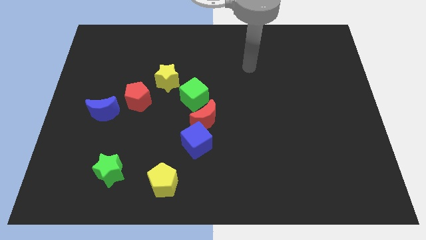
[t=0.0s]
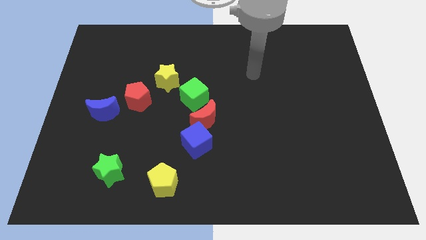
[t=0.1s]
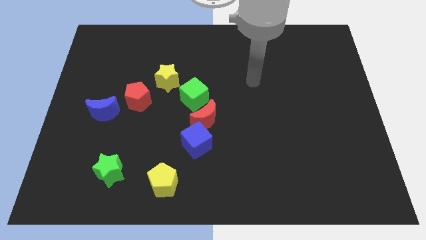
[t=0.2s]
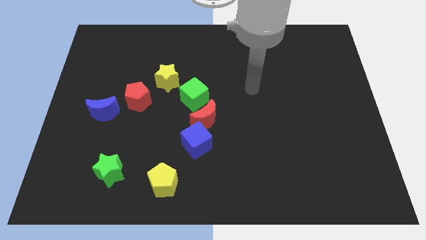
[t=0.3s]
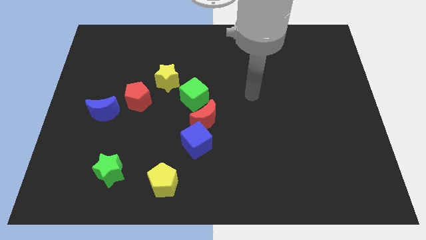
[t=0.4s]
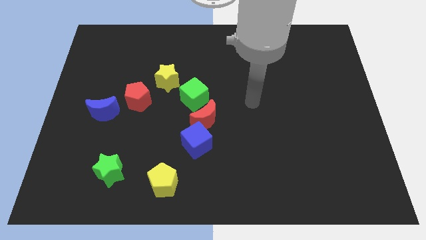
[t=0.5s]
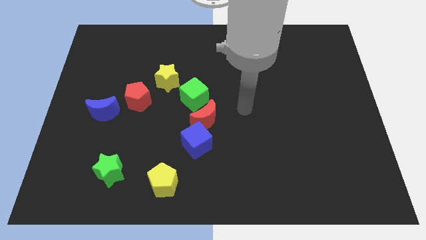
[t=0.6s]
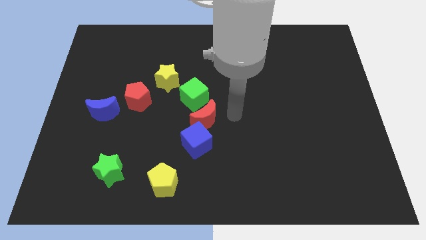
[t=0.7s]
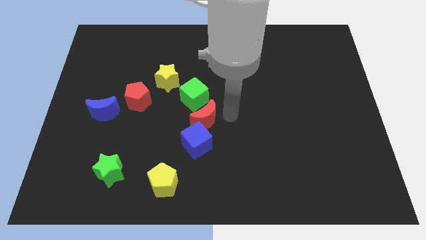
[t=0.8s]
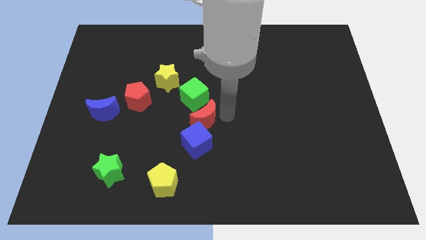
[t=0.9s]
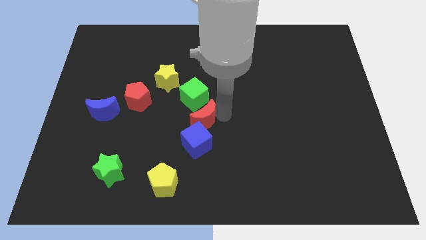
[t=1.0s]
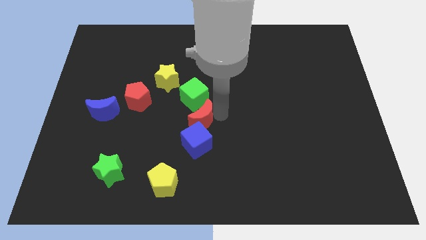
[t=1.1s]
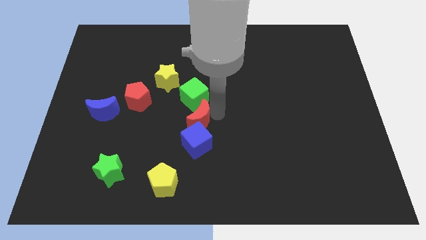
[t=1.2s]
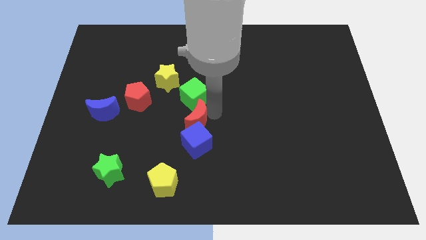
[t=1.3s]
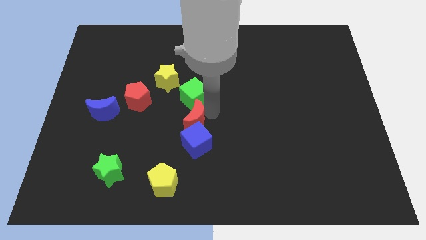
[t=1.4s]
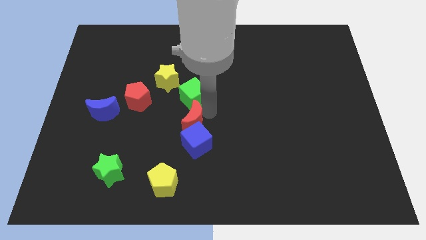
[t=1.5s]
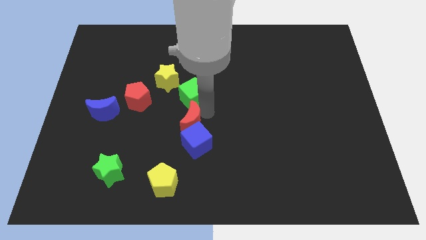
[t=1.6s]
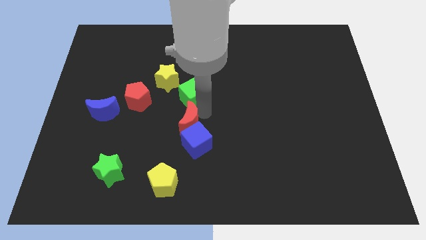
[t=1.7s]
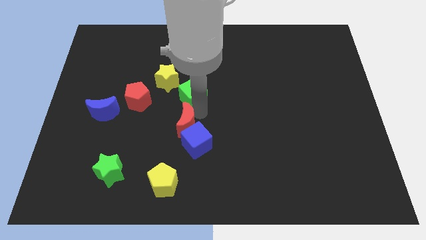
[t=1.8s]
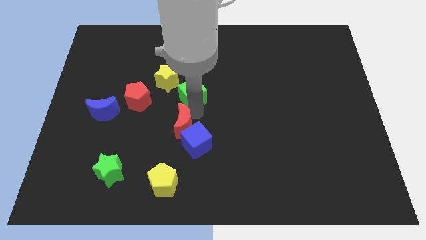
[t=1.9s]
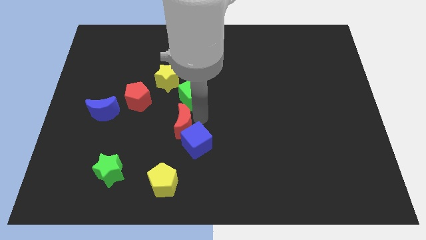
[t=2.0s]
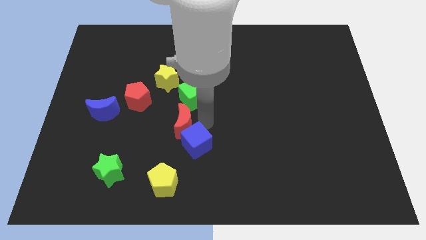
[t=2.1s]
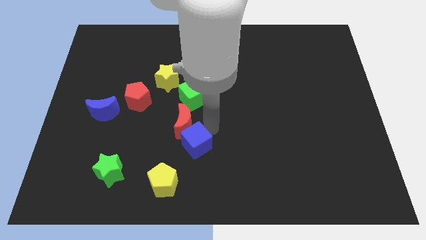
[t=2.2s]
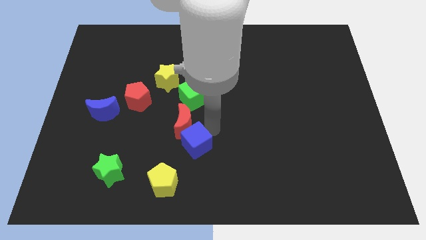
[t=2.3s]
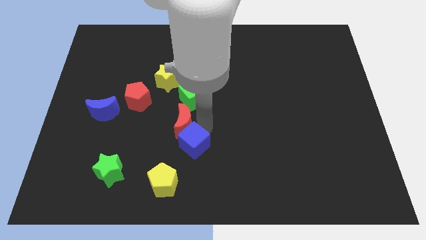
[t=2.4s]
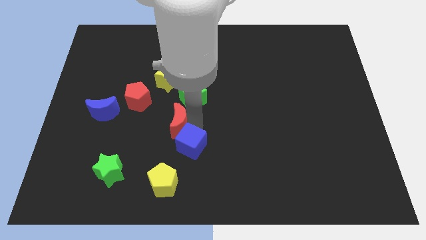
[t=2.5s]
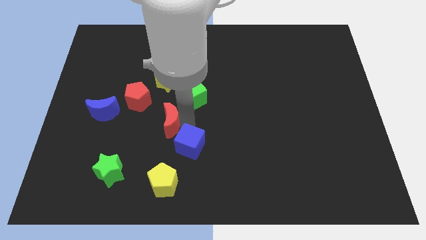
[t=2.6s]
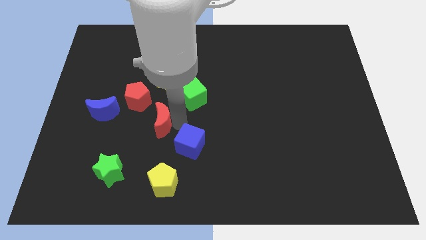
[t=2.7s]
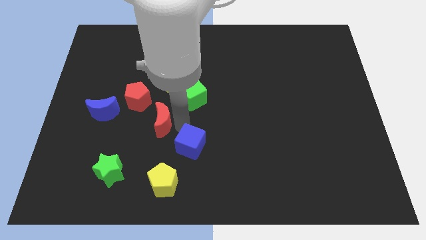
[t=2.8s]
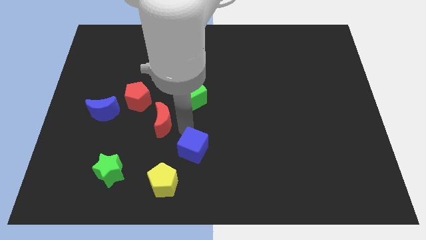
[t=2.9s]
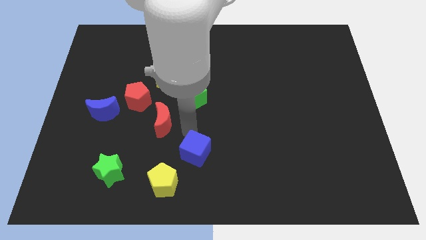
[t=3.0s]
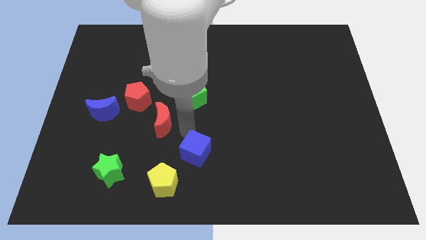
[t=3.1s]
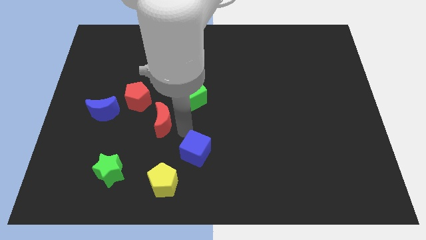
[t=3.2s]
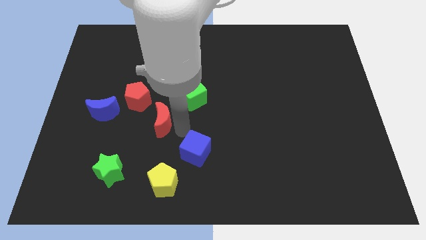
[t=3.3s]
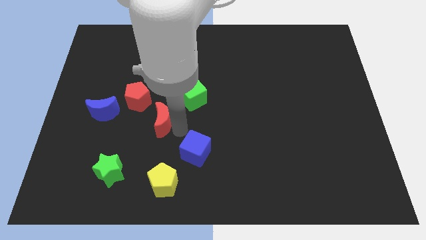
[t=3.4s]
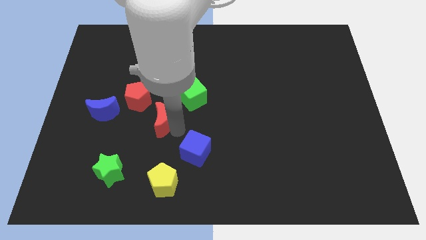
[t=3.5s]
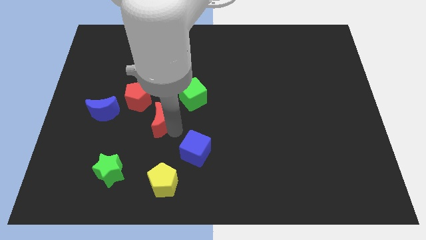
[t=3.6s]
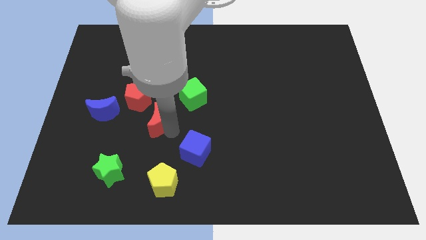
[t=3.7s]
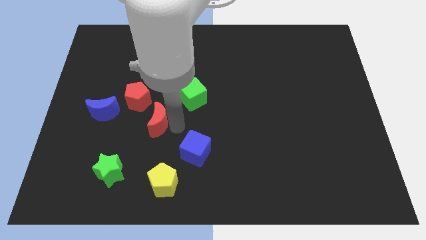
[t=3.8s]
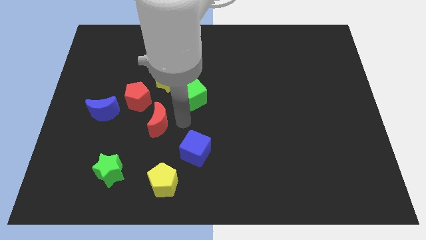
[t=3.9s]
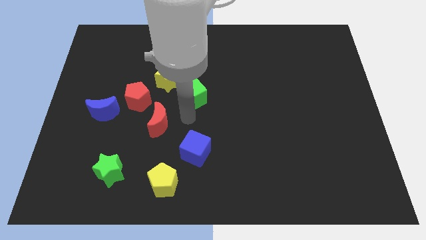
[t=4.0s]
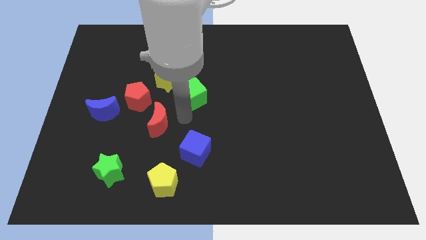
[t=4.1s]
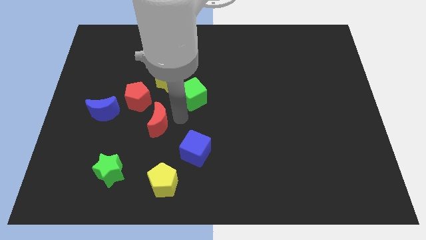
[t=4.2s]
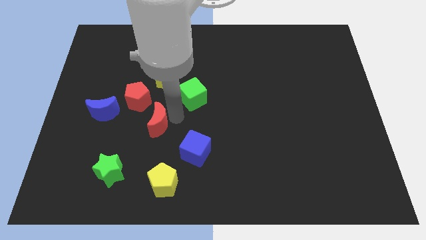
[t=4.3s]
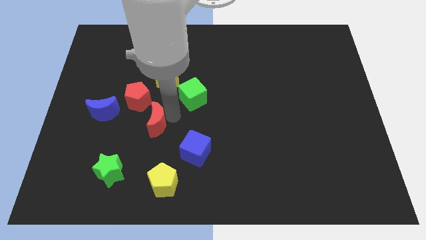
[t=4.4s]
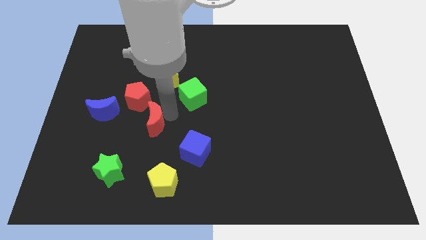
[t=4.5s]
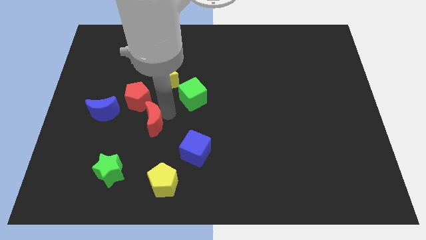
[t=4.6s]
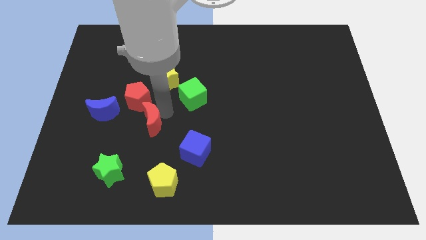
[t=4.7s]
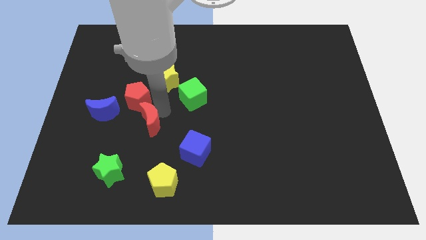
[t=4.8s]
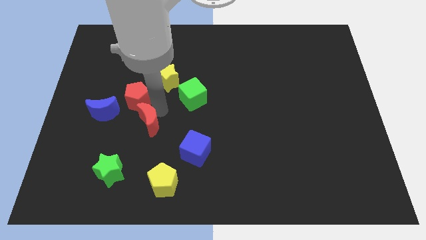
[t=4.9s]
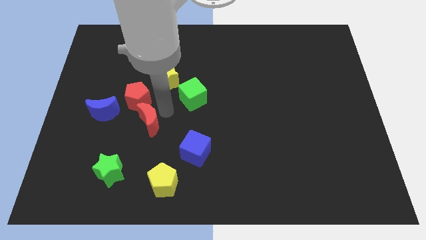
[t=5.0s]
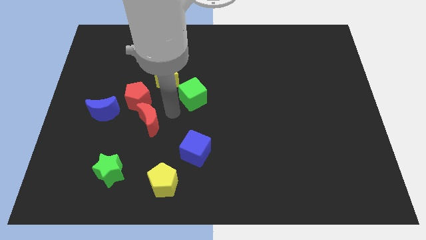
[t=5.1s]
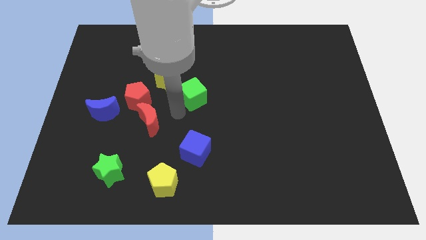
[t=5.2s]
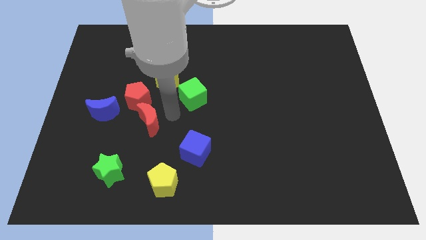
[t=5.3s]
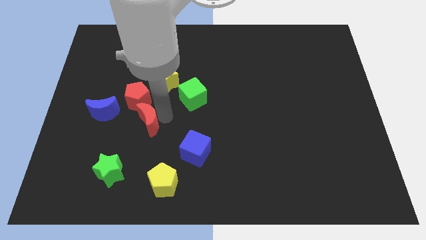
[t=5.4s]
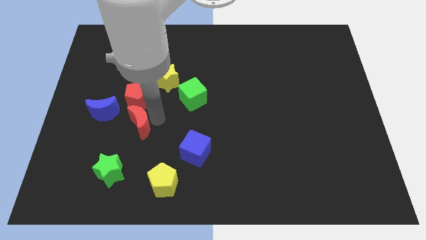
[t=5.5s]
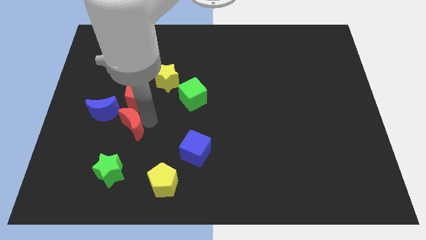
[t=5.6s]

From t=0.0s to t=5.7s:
put the red moon to the top side of the green star

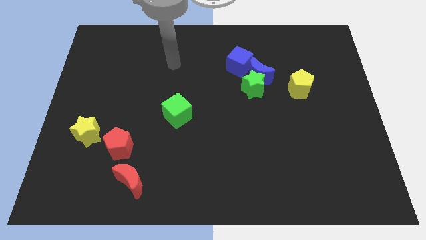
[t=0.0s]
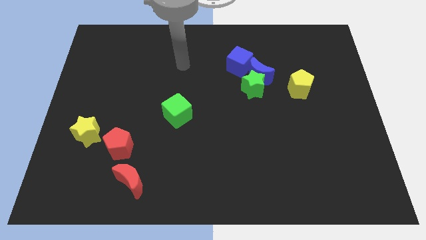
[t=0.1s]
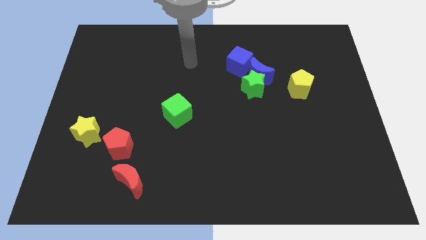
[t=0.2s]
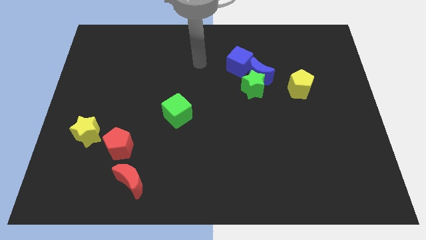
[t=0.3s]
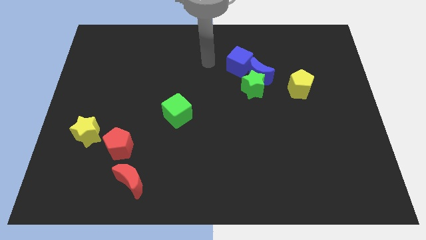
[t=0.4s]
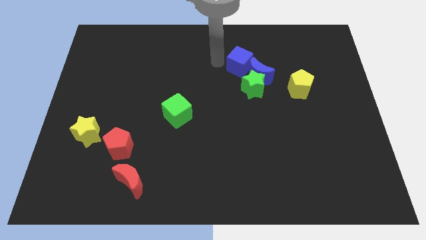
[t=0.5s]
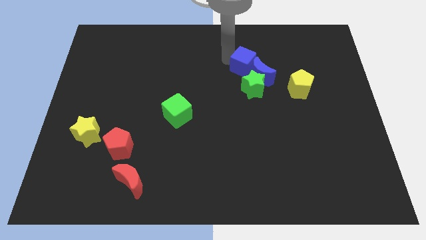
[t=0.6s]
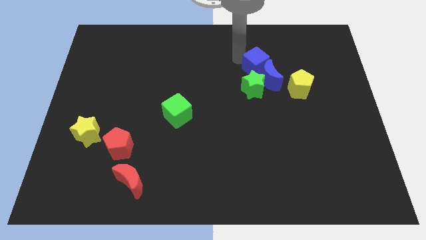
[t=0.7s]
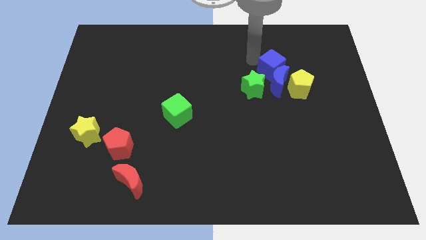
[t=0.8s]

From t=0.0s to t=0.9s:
put the blue moon to the bottom left side of the yellow pentagon

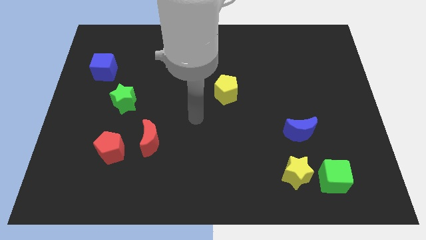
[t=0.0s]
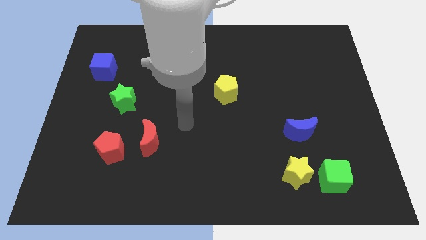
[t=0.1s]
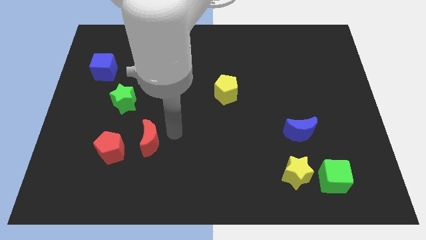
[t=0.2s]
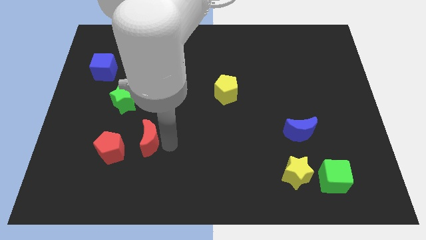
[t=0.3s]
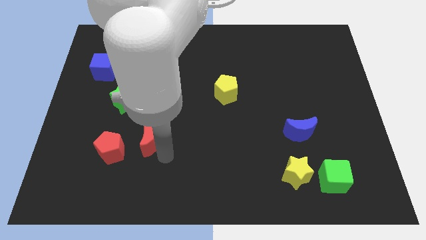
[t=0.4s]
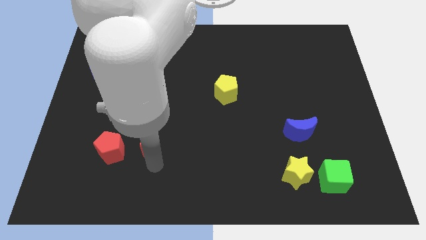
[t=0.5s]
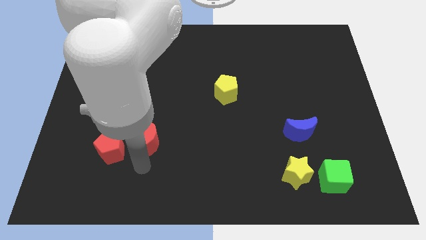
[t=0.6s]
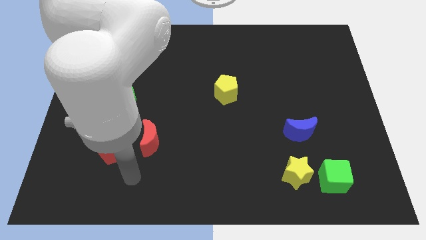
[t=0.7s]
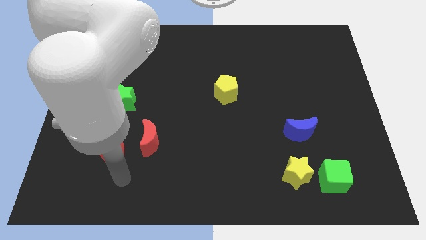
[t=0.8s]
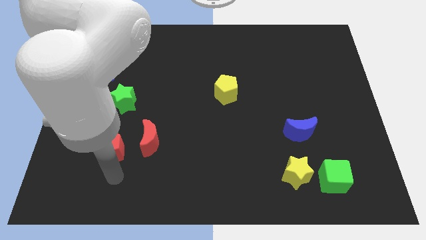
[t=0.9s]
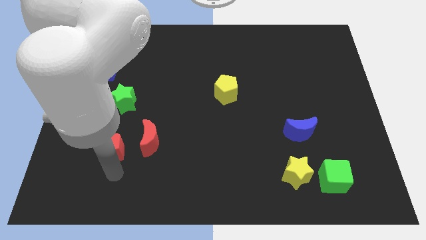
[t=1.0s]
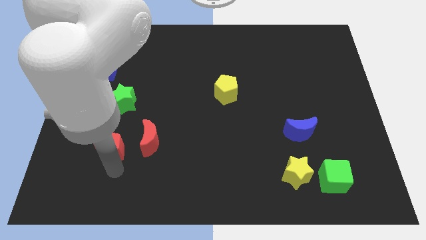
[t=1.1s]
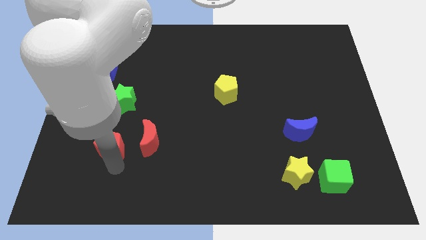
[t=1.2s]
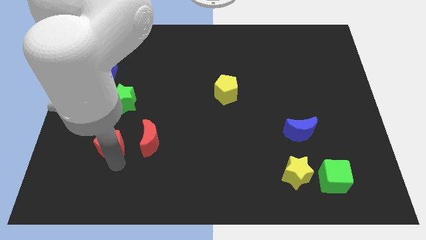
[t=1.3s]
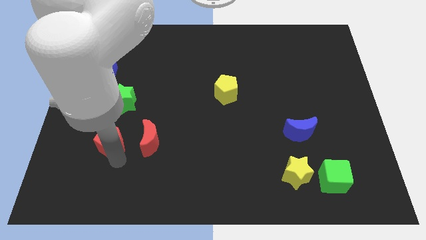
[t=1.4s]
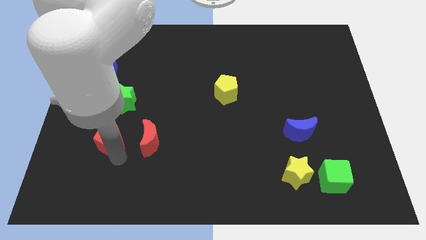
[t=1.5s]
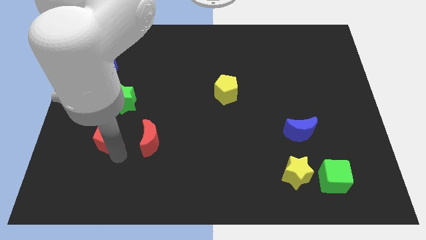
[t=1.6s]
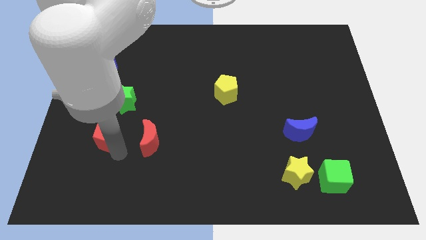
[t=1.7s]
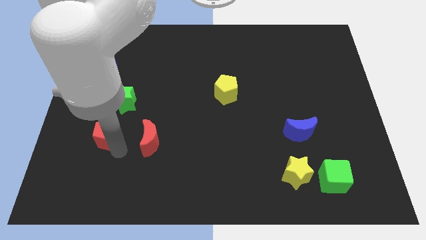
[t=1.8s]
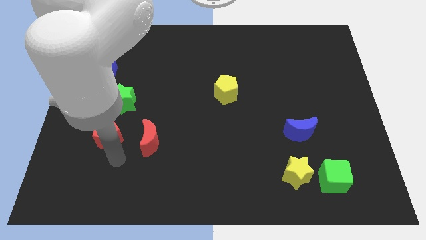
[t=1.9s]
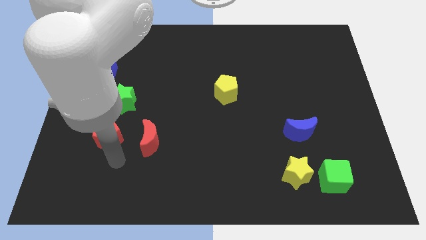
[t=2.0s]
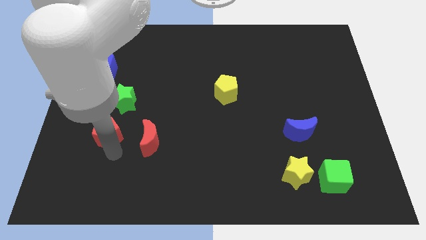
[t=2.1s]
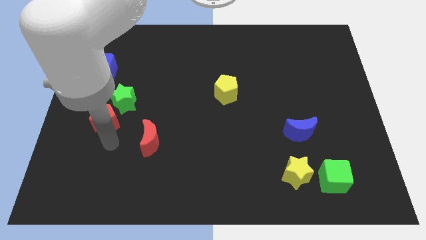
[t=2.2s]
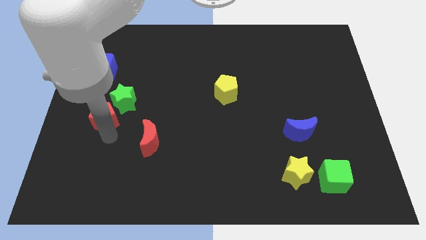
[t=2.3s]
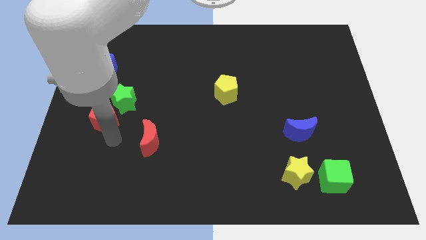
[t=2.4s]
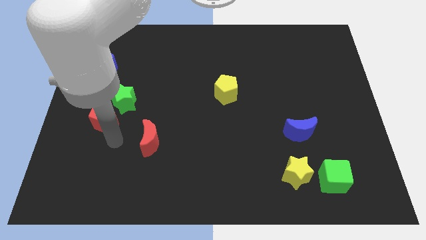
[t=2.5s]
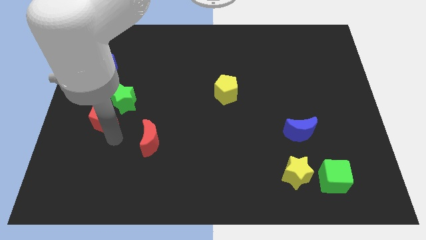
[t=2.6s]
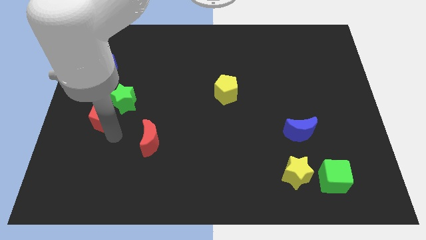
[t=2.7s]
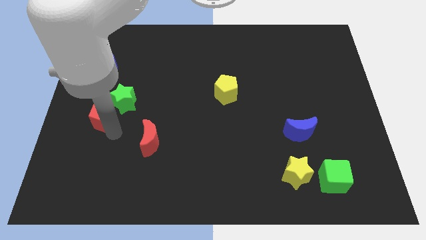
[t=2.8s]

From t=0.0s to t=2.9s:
slide the red pentagon to the bottom side of the blue cube
